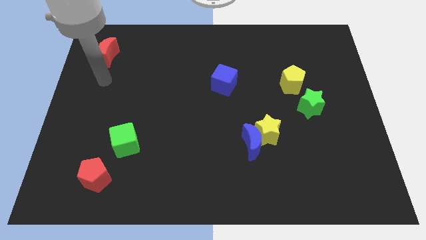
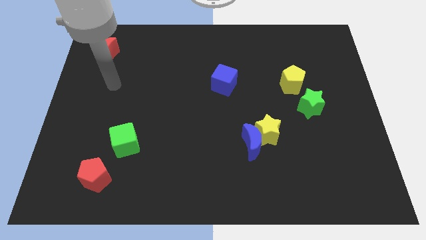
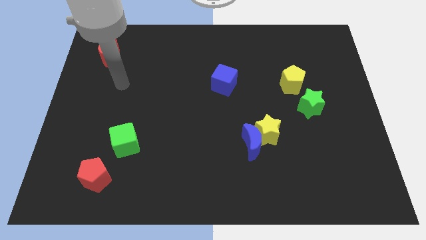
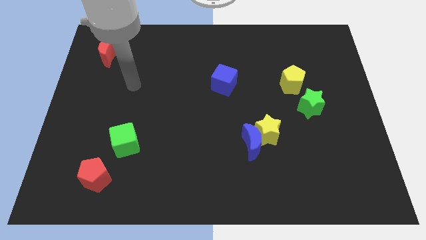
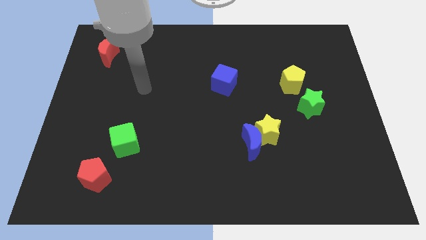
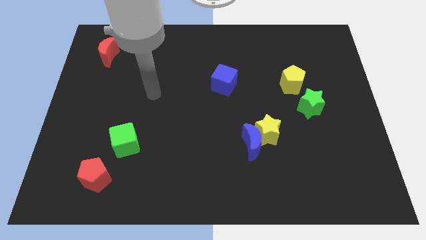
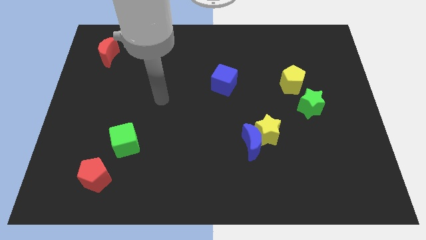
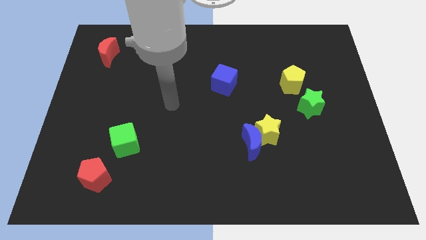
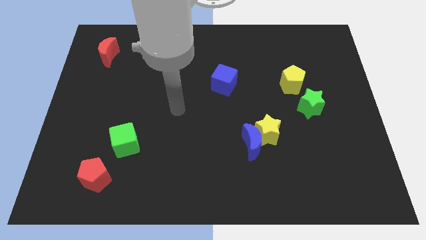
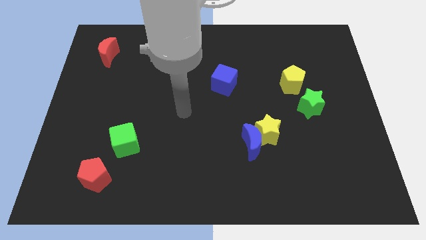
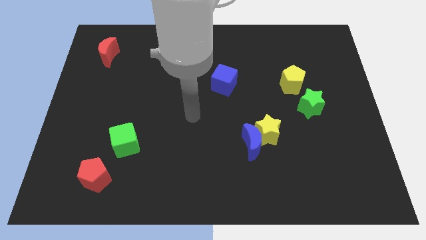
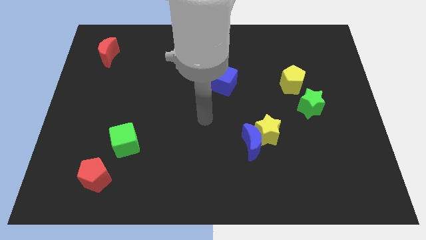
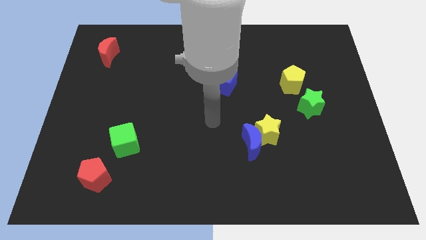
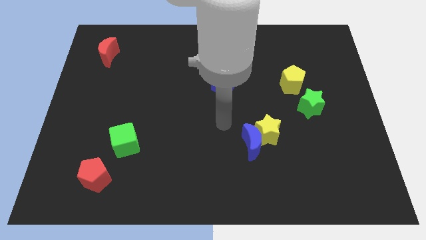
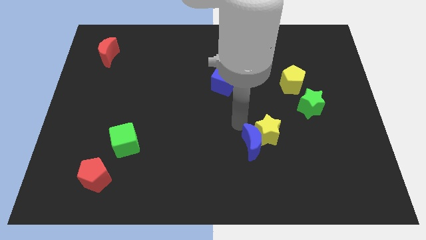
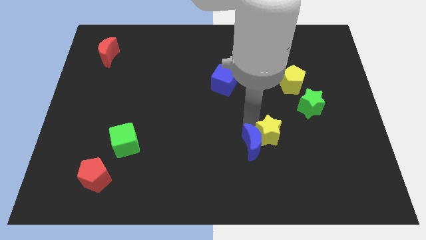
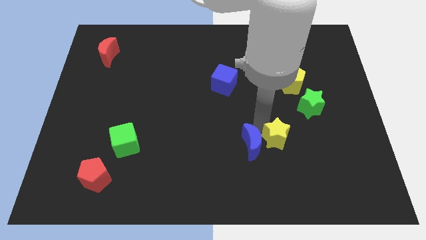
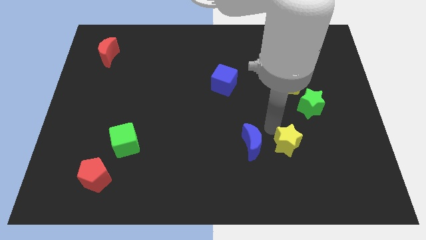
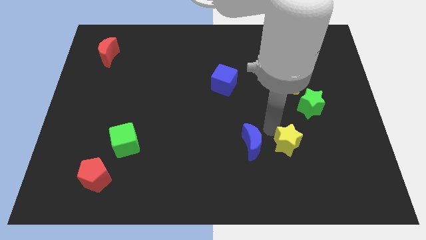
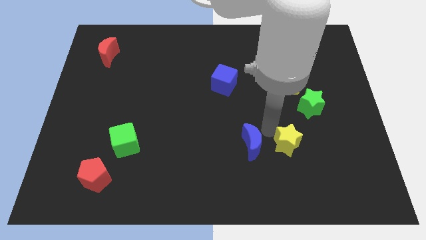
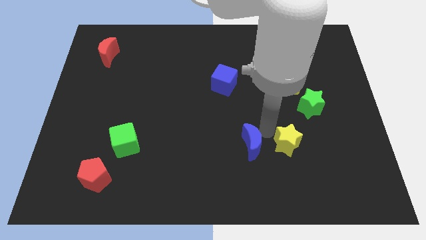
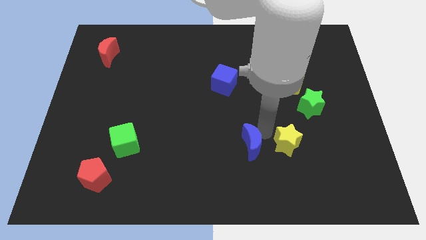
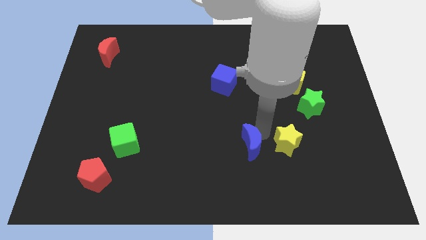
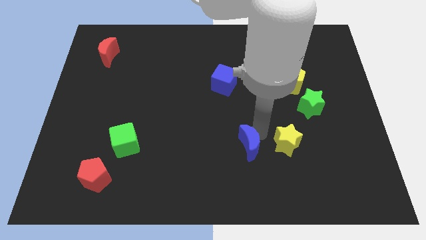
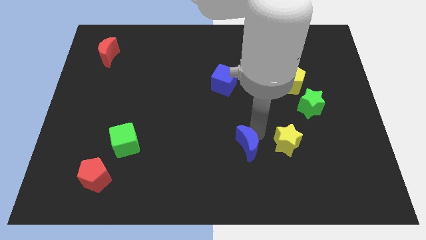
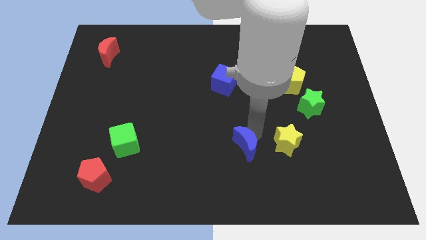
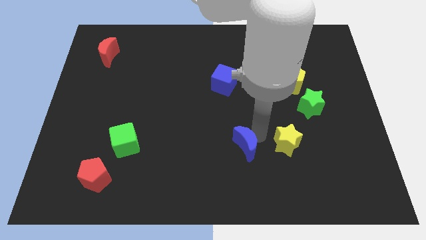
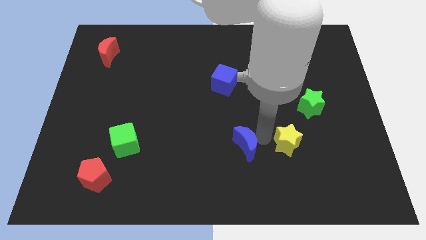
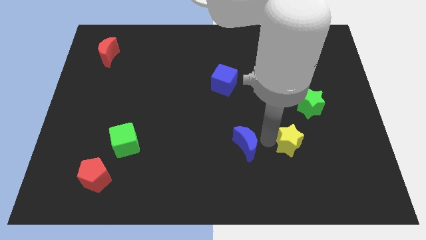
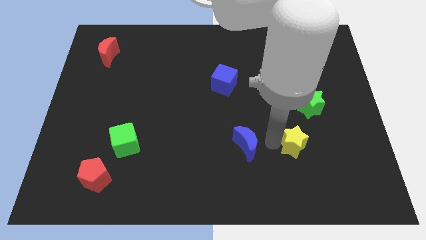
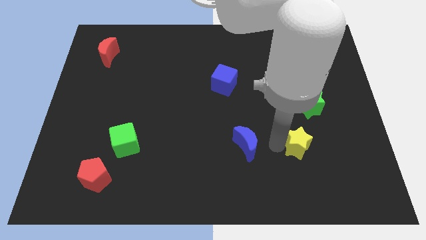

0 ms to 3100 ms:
pull the blue moon apart from the yellow star

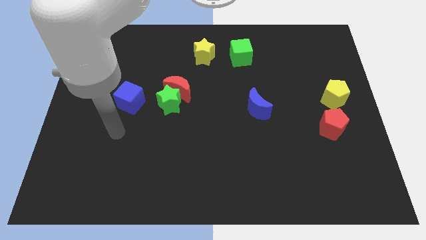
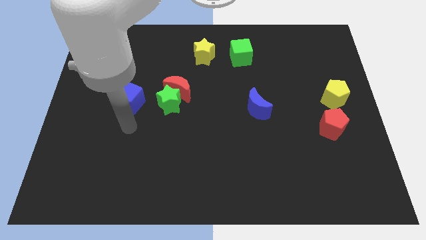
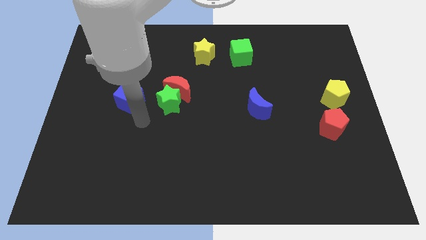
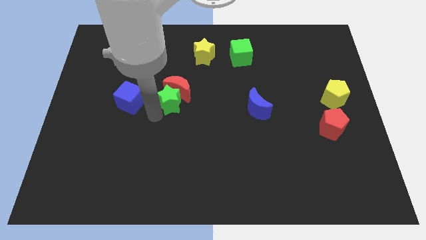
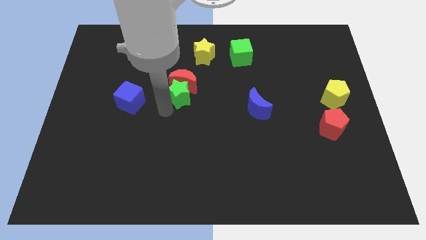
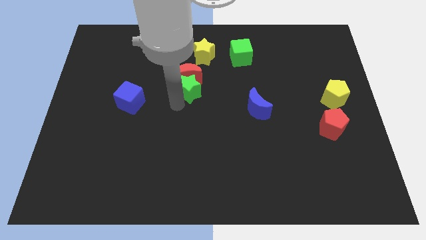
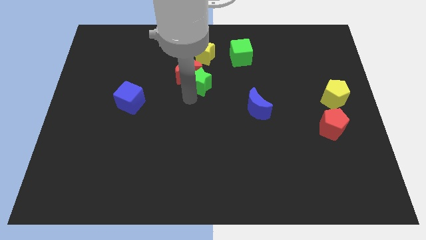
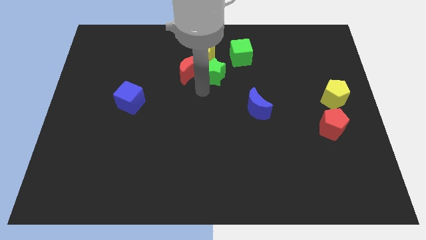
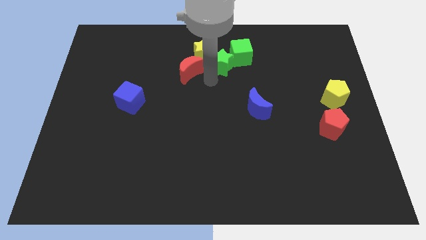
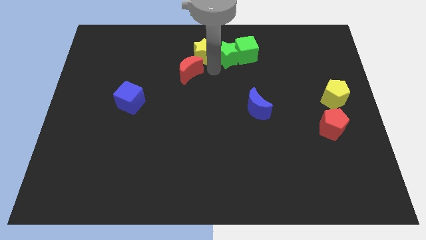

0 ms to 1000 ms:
move the red moon away from the green star

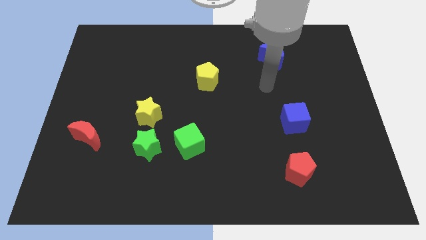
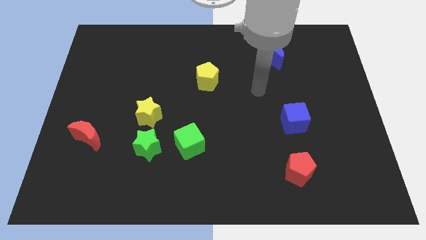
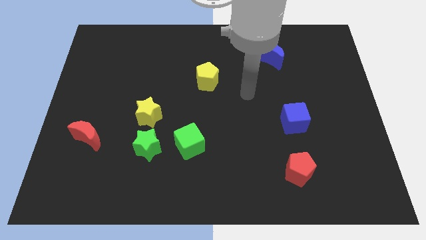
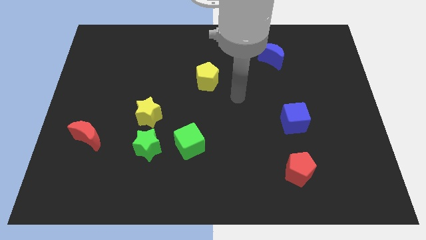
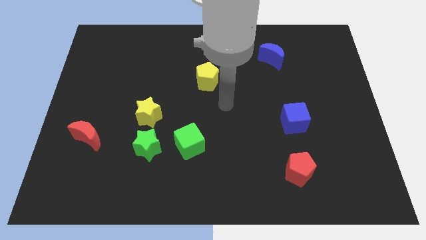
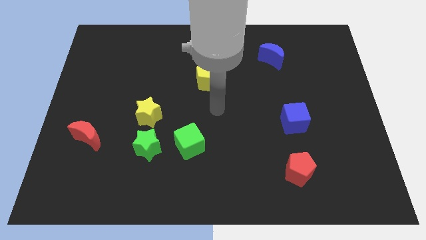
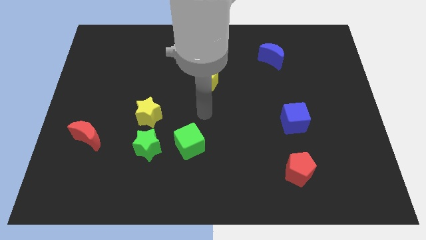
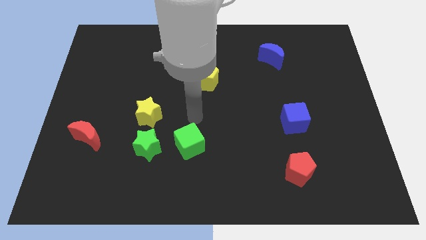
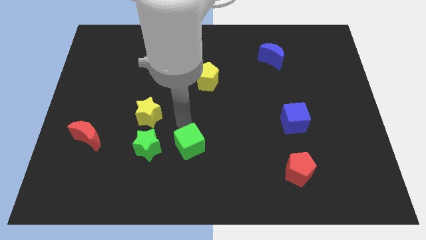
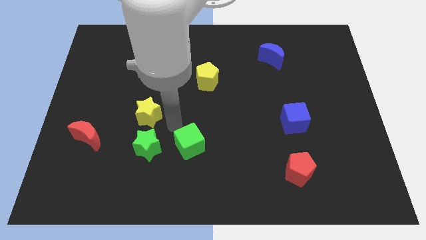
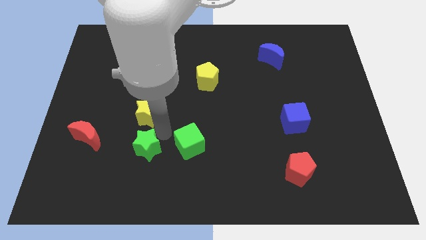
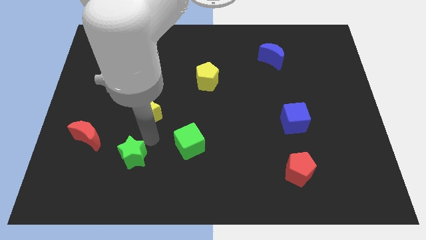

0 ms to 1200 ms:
separate the yellow star from the green star

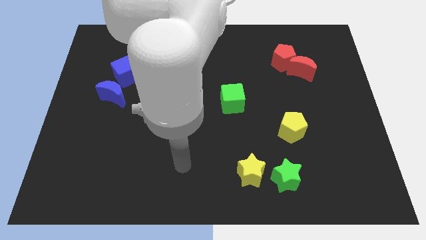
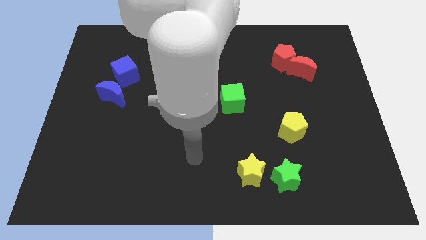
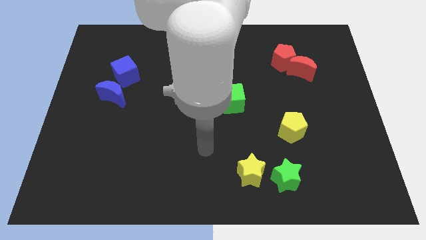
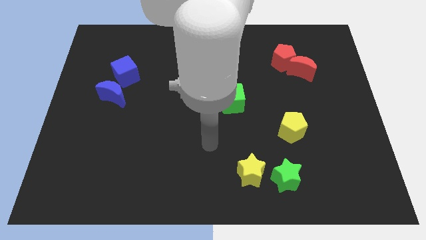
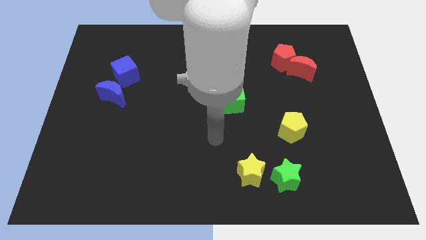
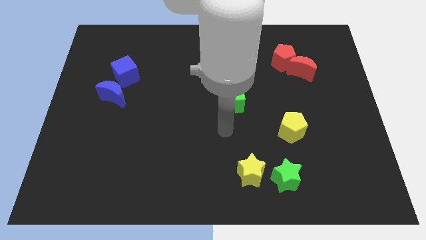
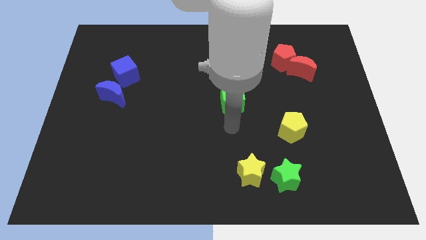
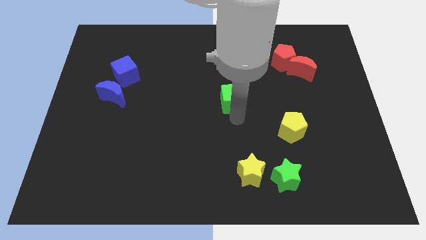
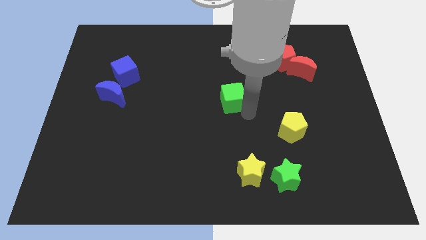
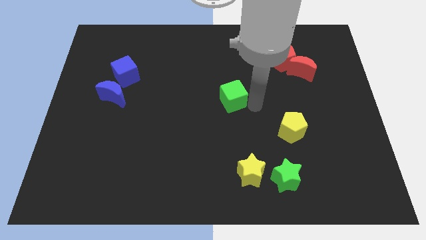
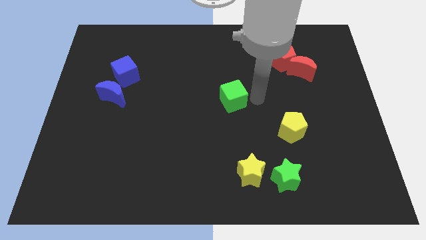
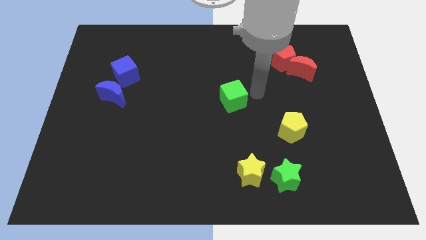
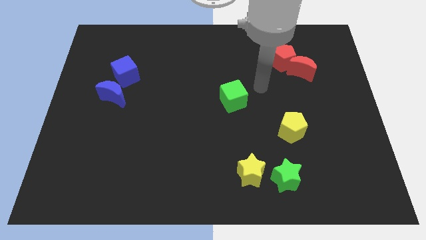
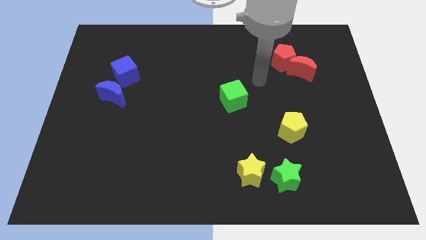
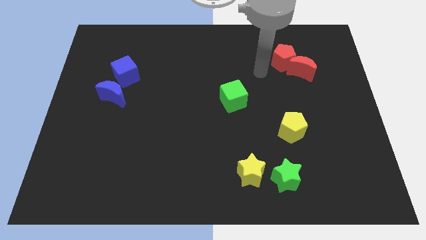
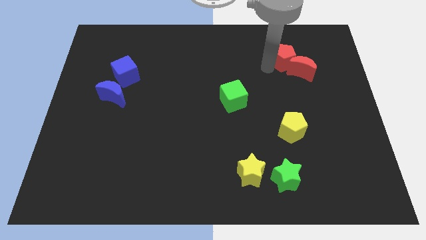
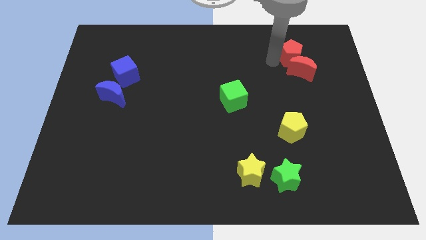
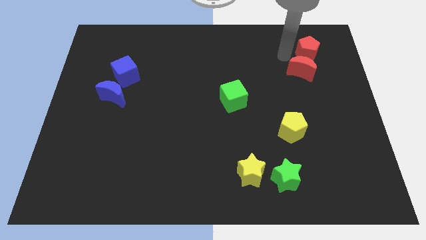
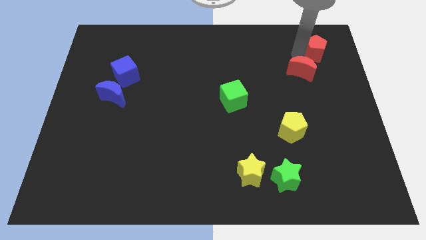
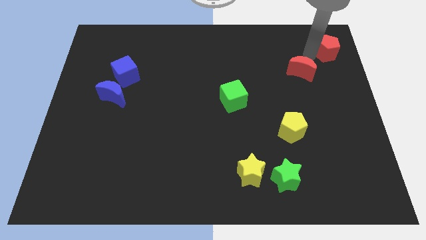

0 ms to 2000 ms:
move the red moon away from the red pentagon

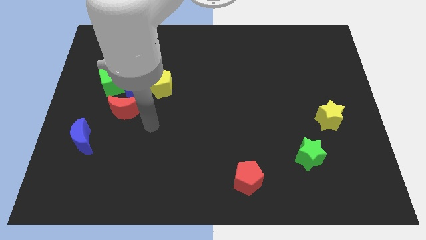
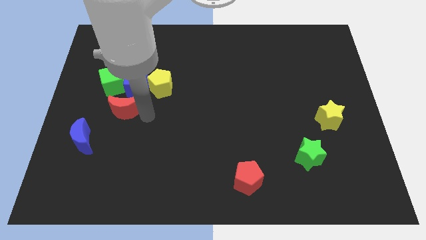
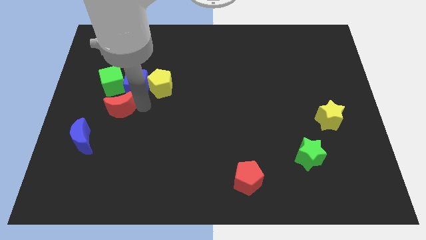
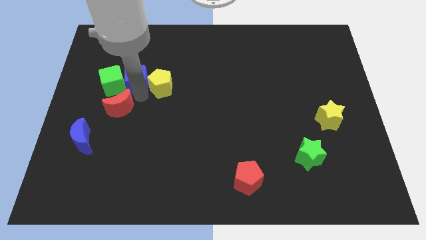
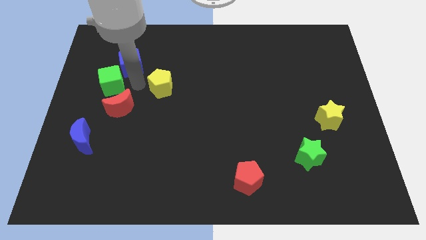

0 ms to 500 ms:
separate the yellow pentagon from the blue cube

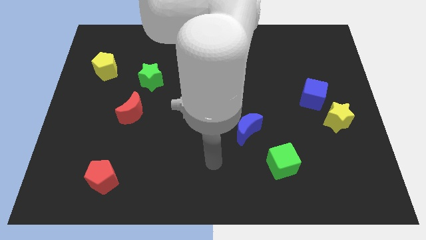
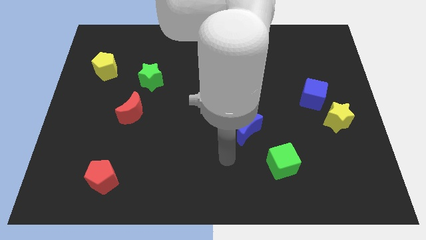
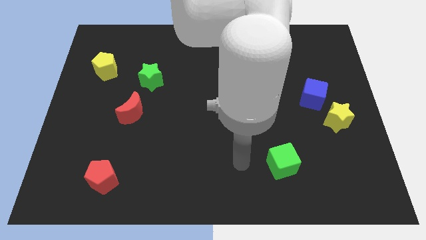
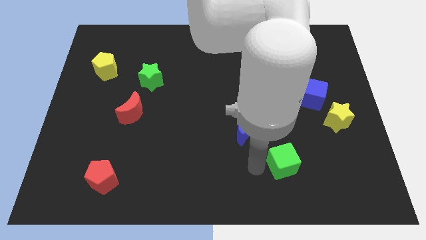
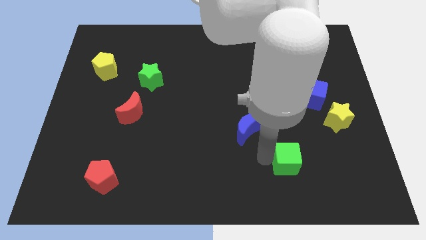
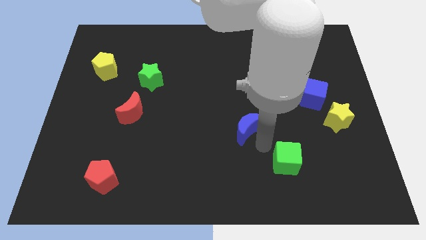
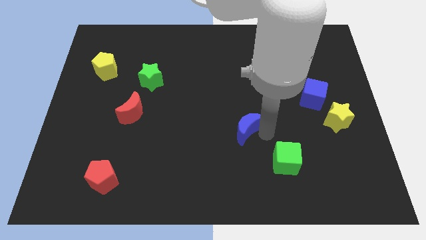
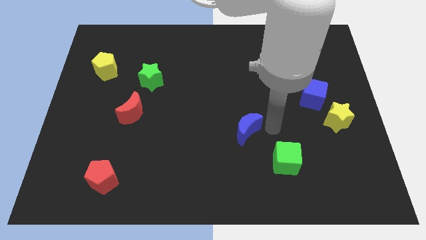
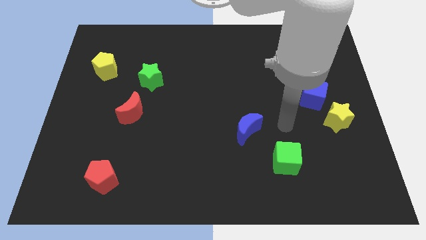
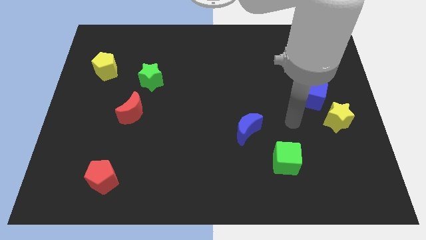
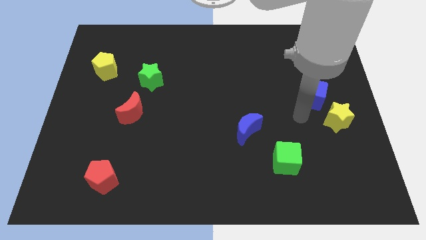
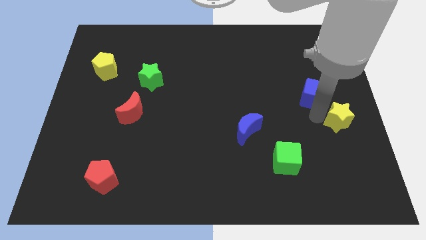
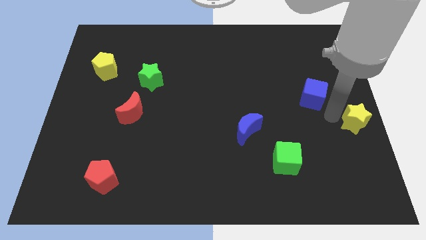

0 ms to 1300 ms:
pull the blue cube apart from the yellow star

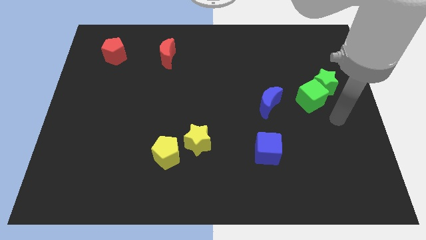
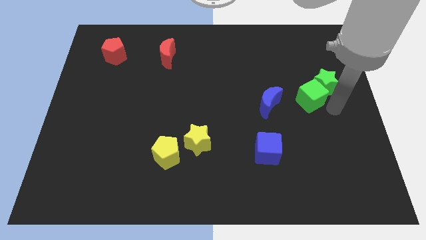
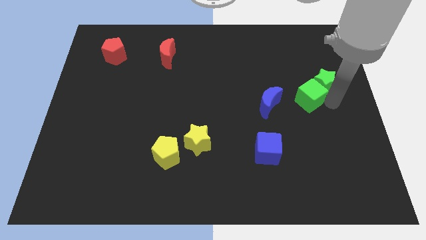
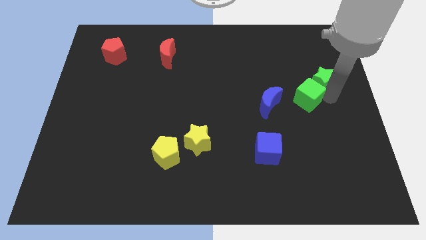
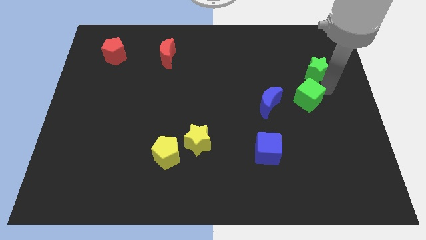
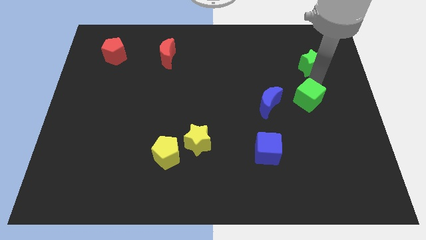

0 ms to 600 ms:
separate the green cube from the green star
